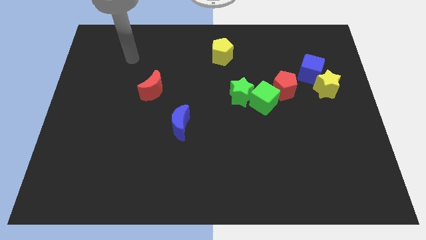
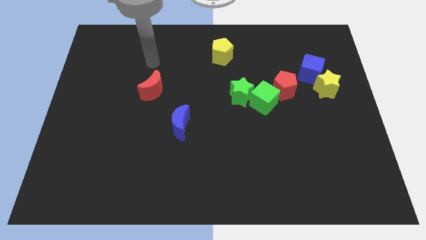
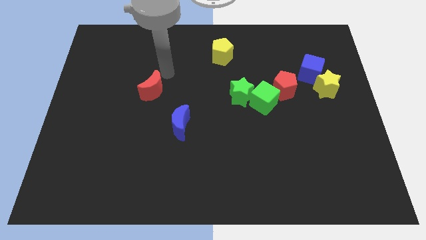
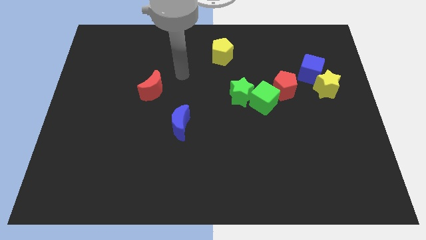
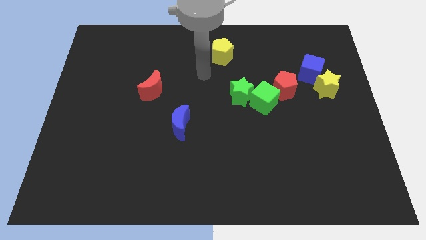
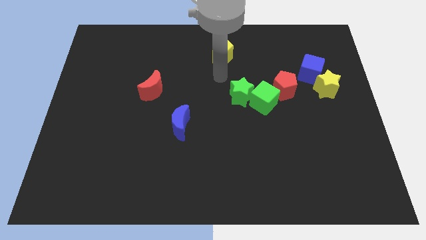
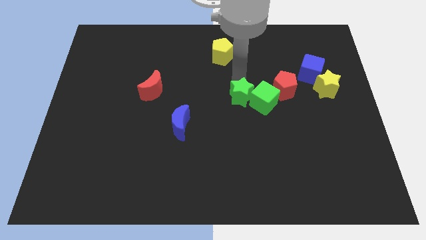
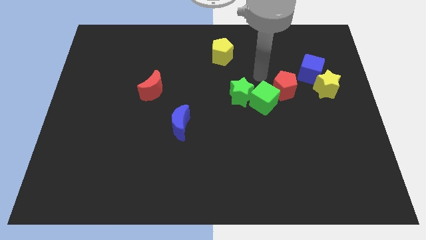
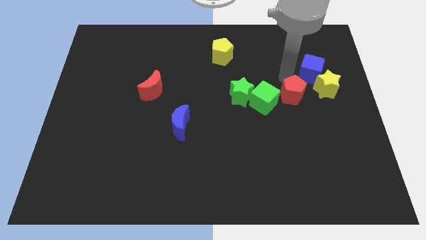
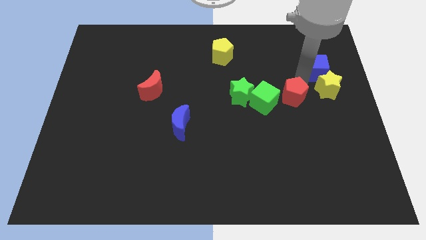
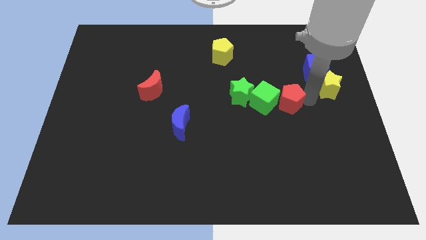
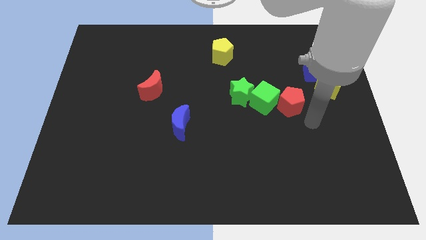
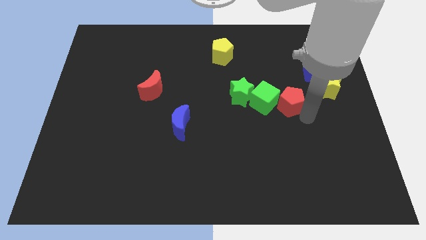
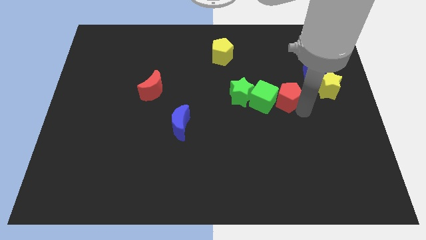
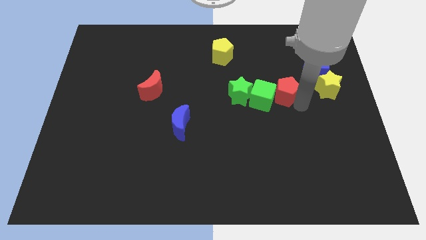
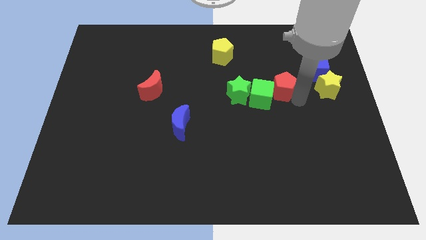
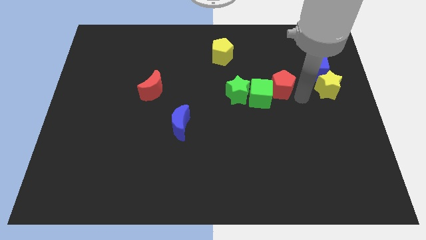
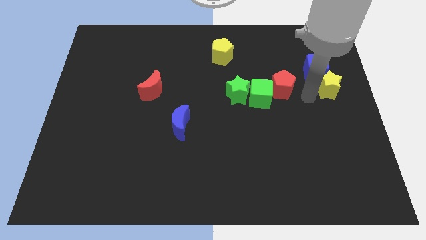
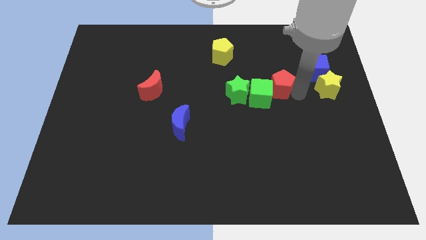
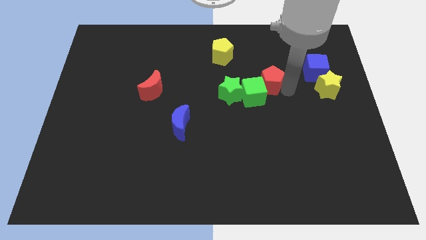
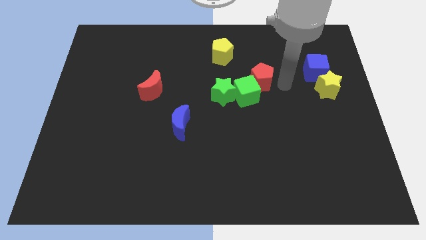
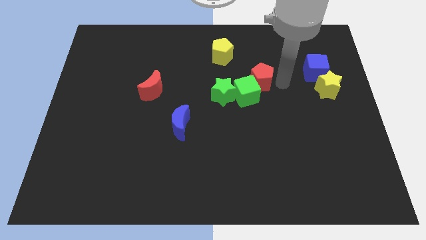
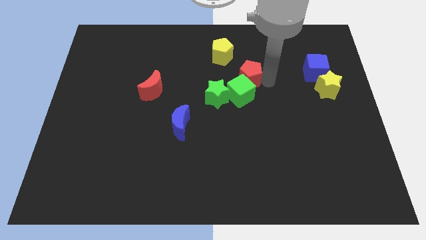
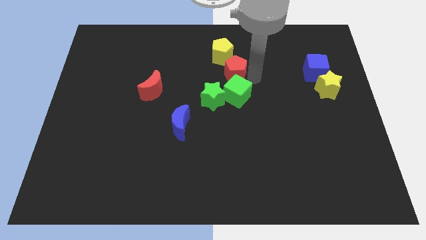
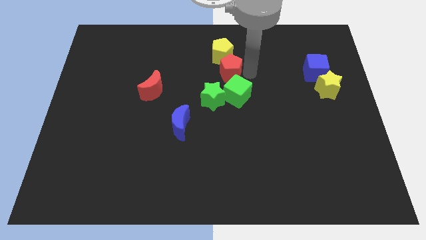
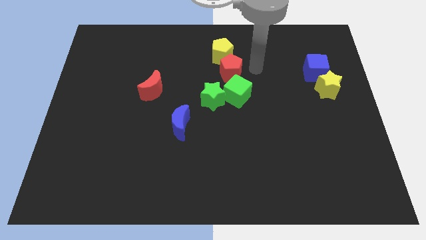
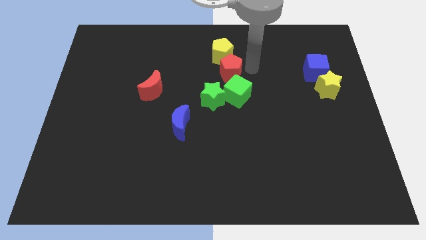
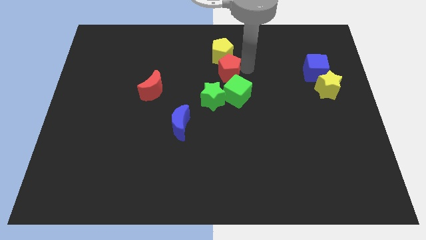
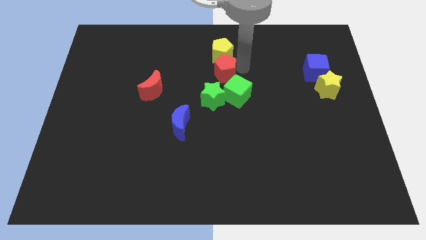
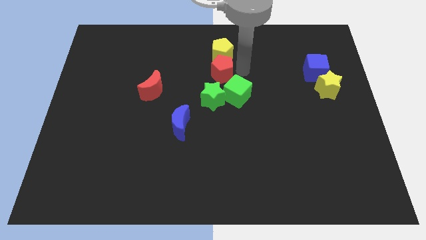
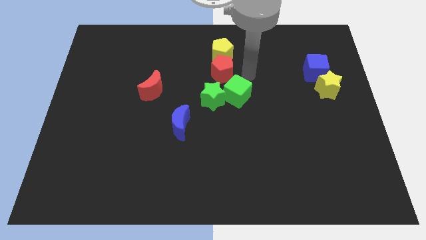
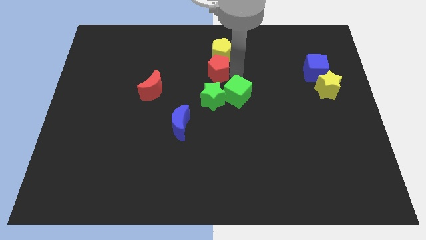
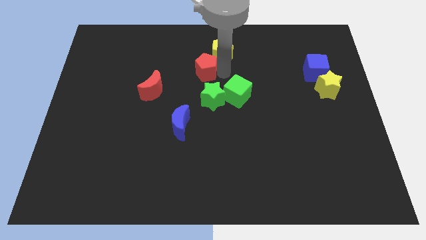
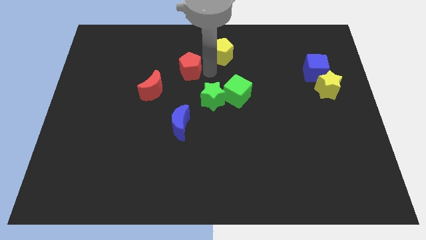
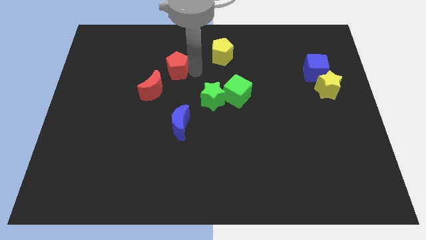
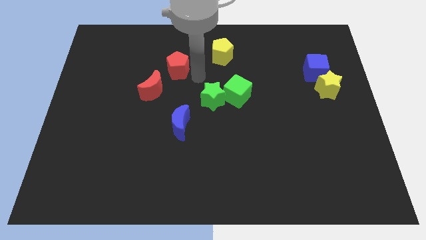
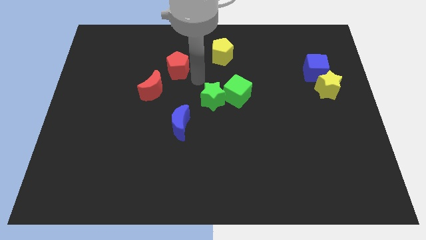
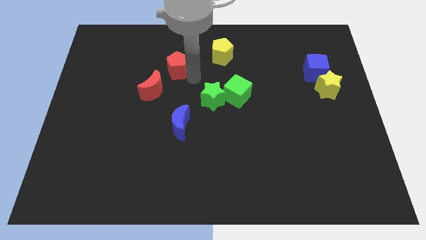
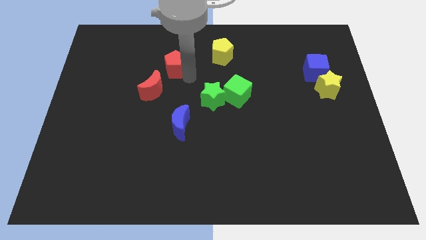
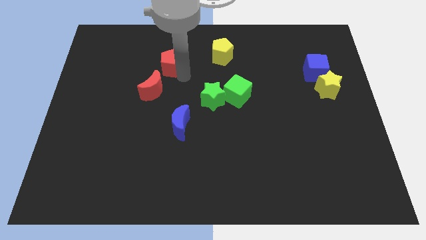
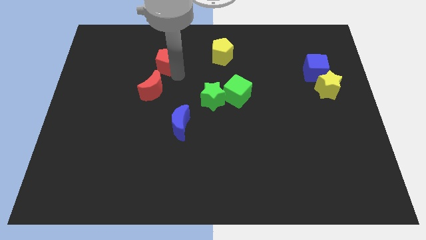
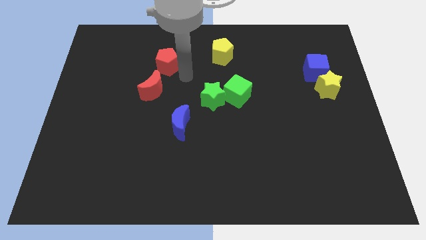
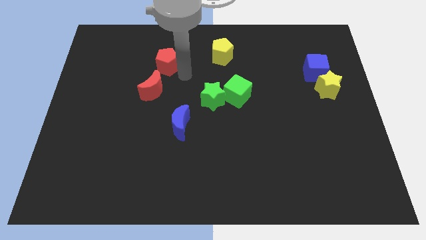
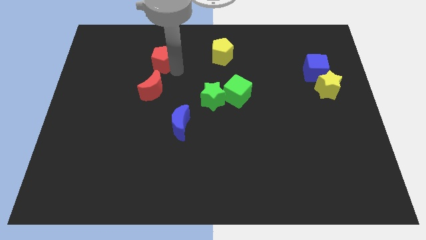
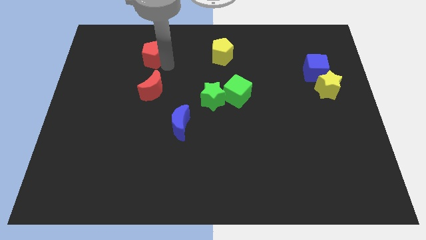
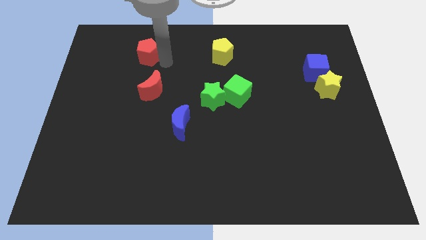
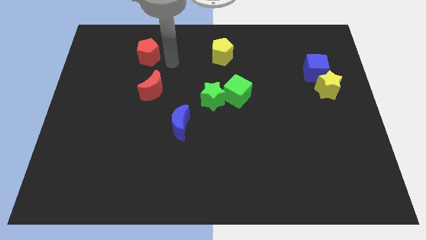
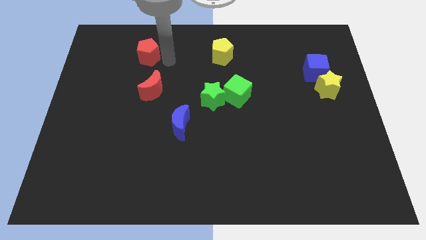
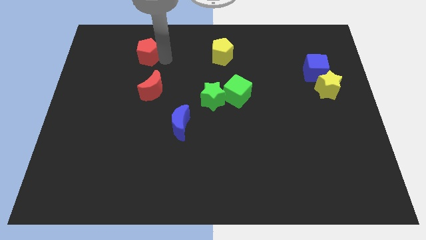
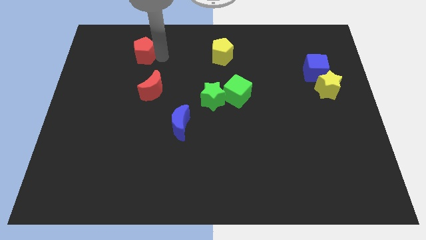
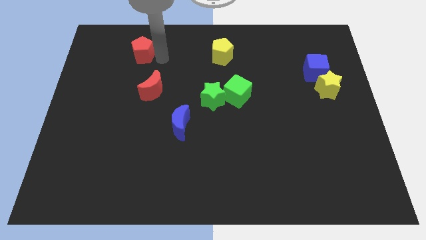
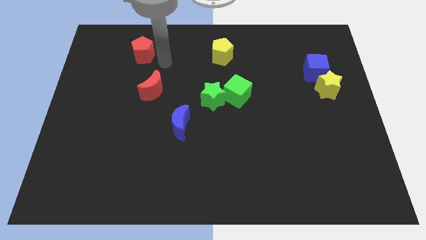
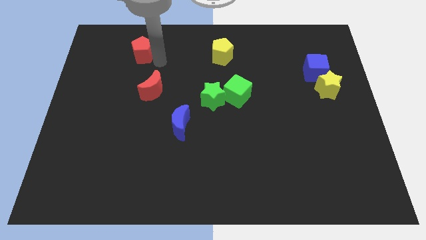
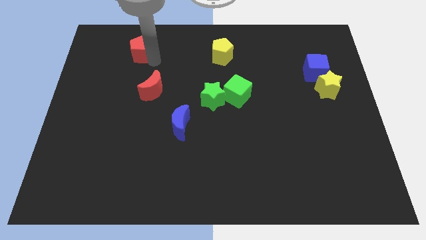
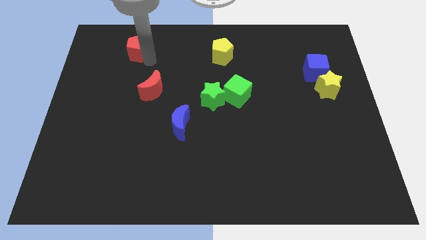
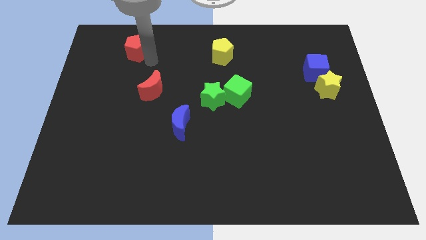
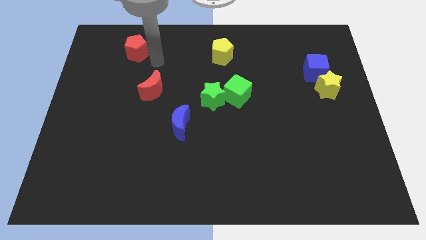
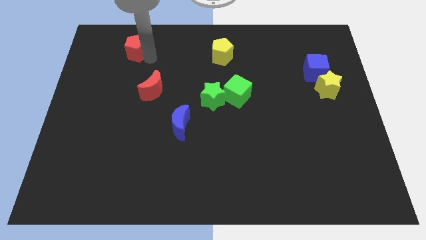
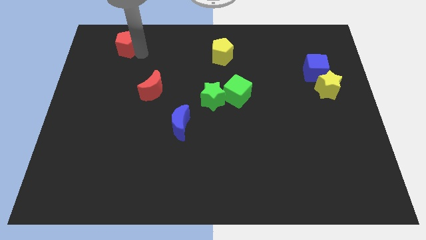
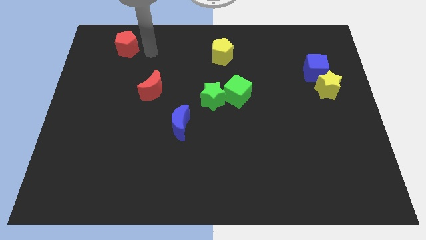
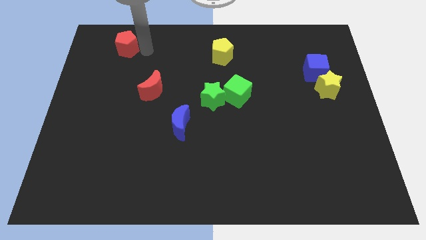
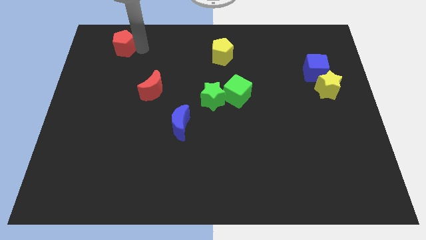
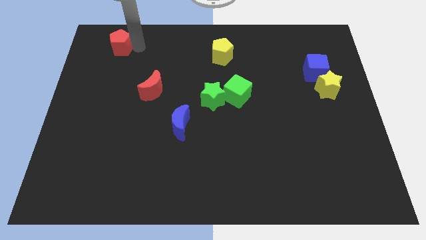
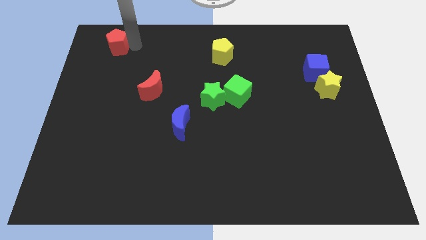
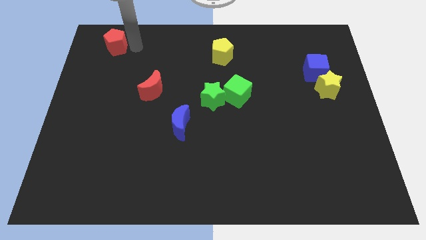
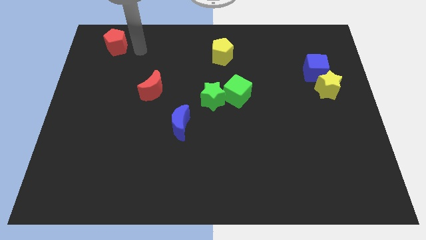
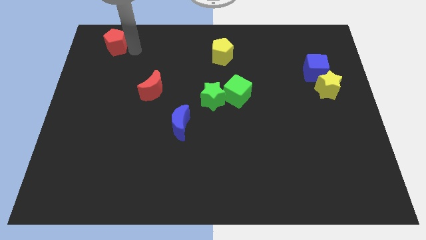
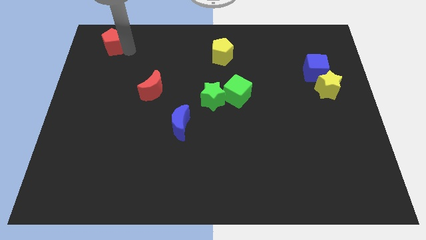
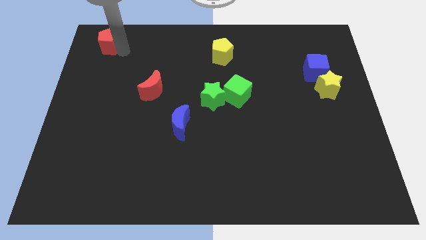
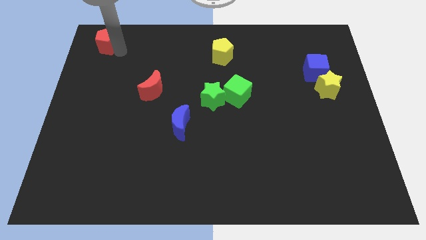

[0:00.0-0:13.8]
move the red pentagon to the upper left corner
